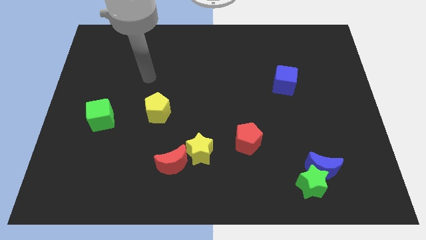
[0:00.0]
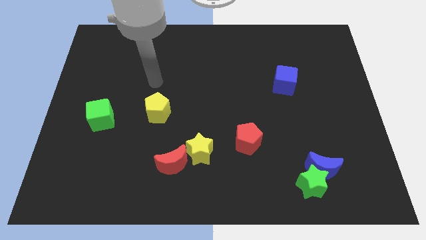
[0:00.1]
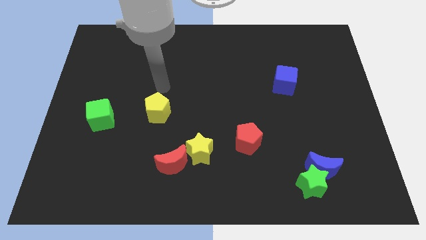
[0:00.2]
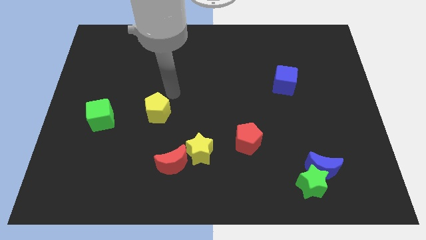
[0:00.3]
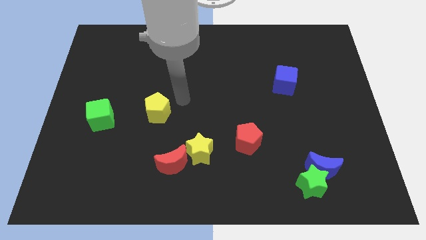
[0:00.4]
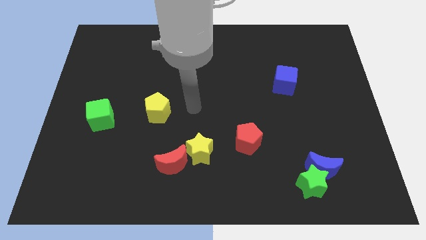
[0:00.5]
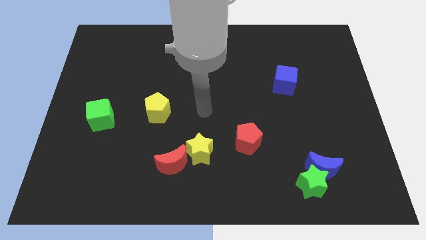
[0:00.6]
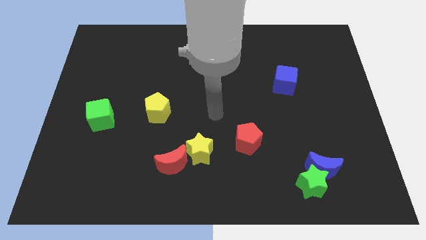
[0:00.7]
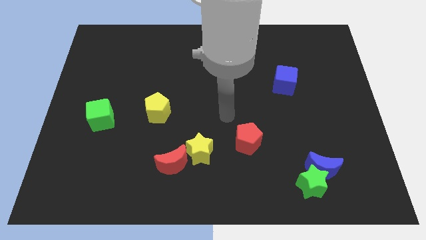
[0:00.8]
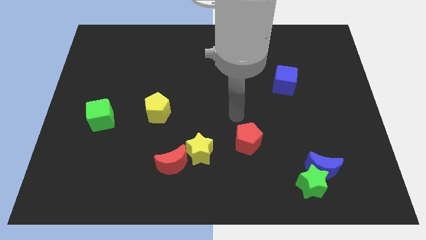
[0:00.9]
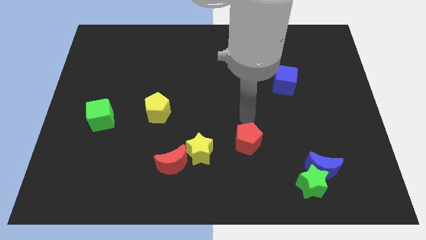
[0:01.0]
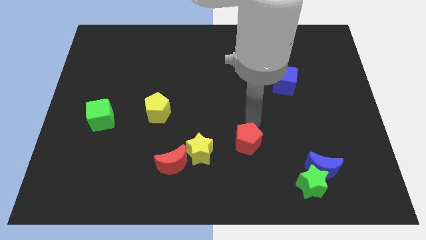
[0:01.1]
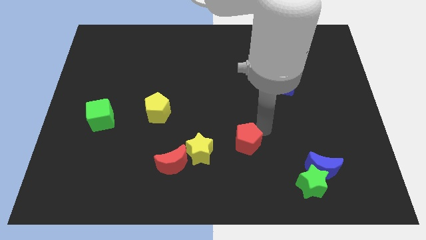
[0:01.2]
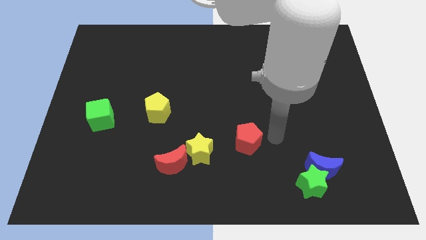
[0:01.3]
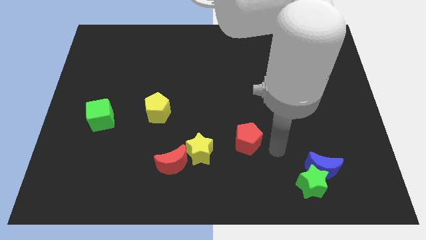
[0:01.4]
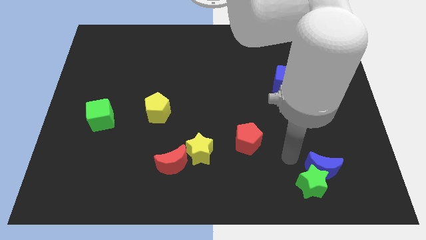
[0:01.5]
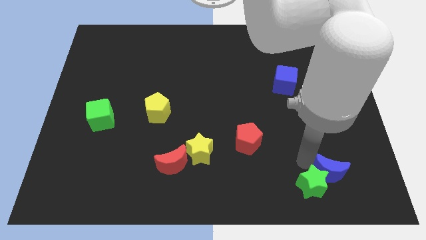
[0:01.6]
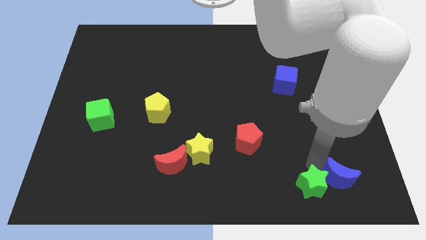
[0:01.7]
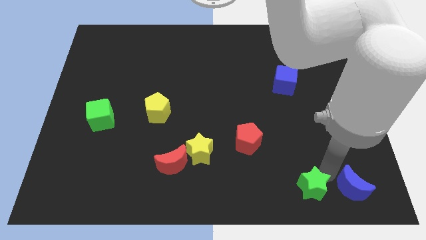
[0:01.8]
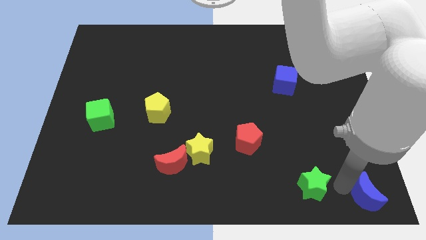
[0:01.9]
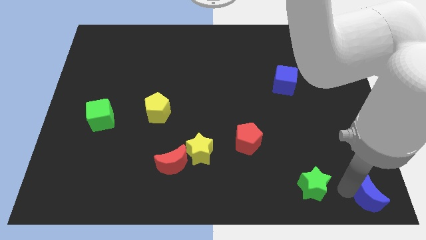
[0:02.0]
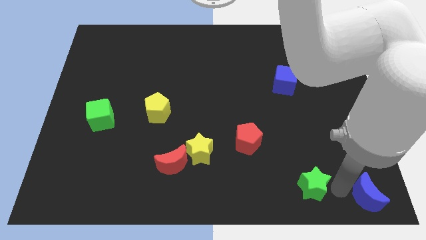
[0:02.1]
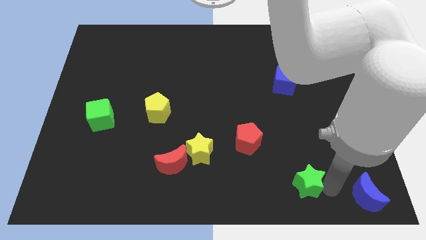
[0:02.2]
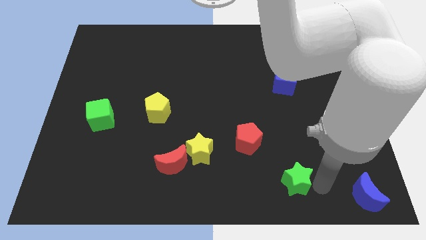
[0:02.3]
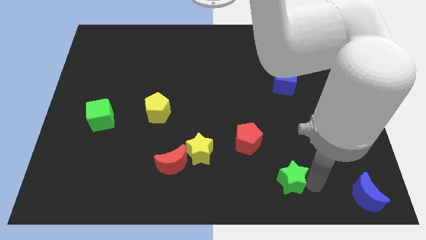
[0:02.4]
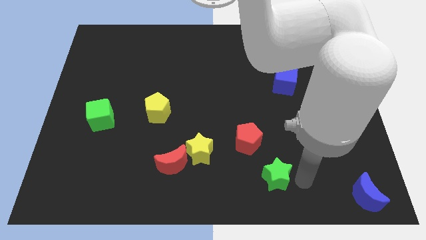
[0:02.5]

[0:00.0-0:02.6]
slide the green star a bit to the left

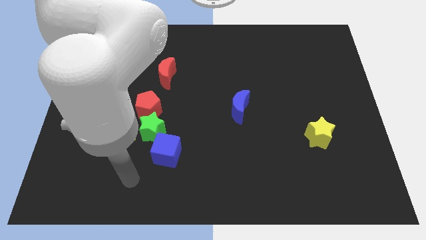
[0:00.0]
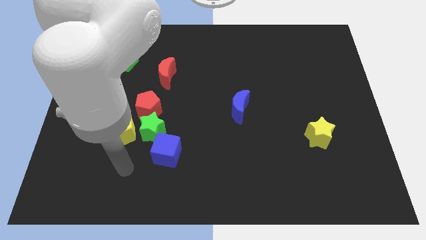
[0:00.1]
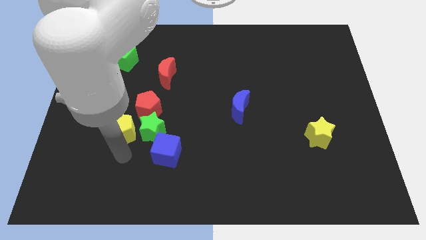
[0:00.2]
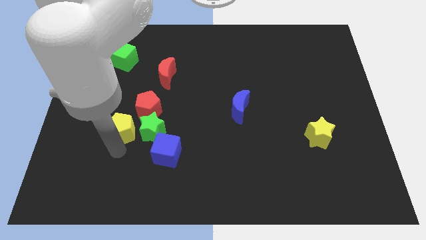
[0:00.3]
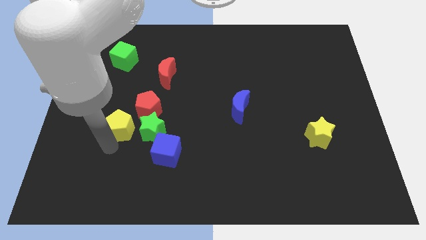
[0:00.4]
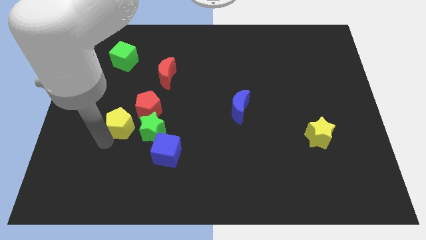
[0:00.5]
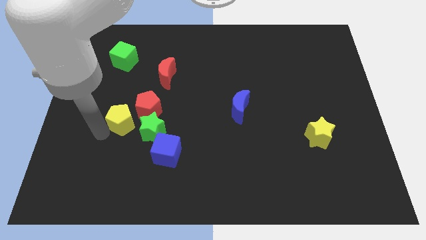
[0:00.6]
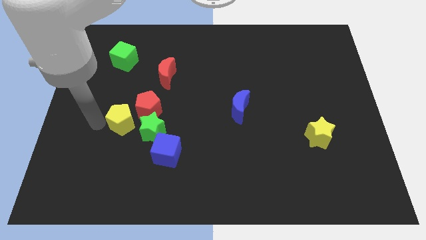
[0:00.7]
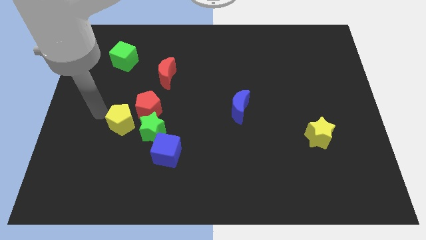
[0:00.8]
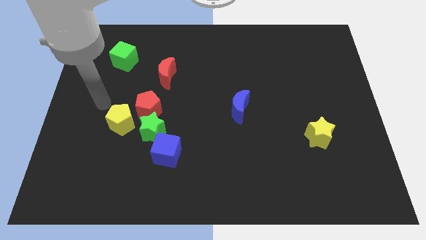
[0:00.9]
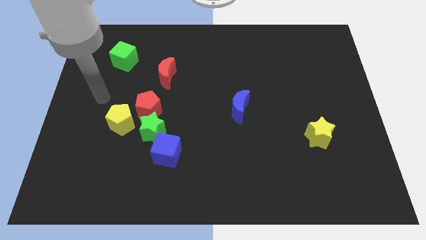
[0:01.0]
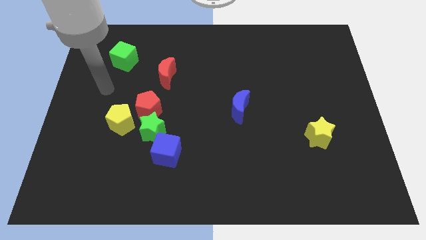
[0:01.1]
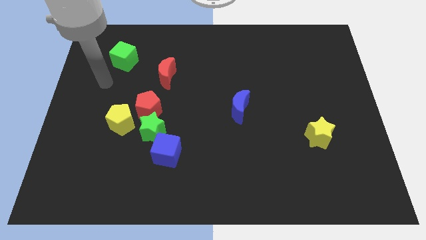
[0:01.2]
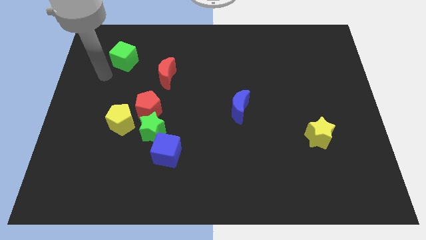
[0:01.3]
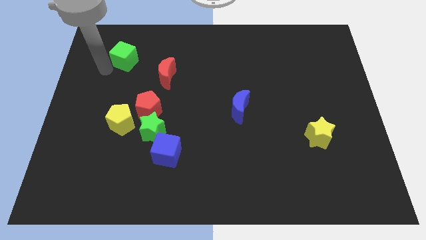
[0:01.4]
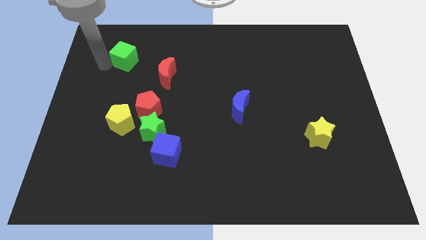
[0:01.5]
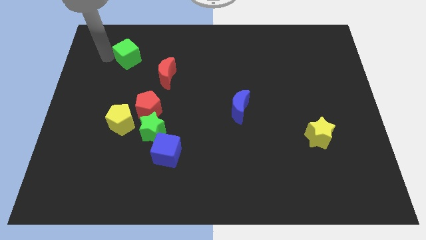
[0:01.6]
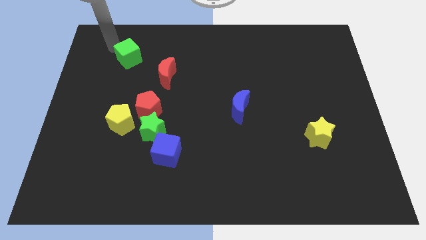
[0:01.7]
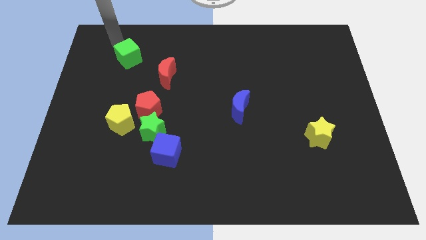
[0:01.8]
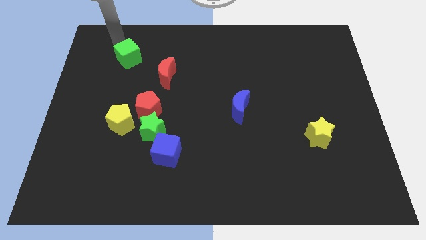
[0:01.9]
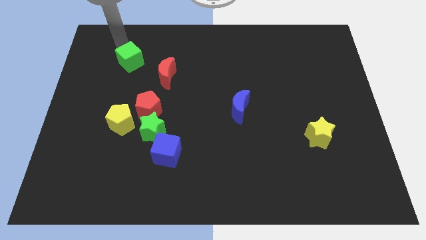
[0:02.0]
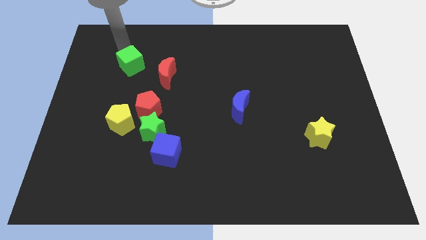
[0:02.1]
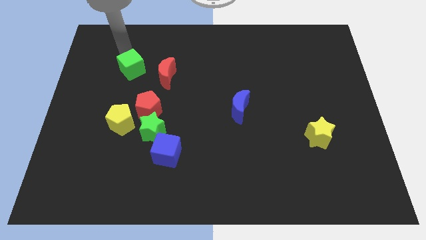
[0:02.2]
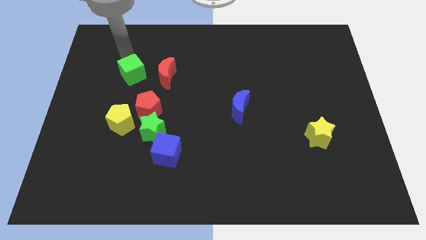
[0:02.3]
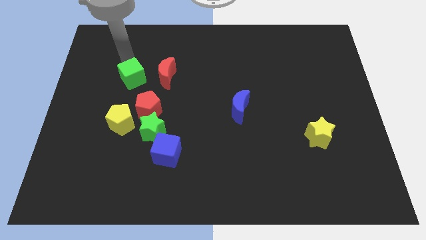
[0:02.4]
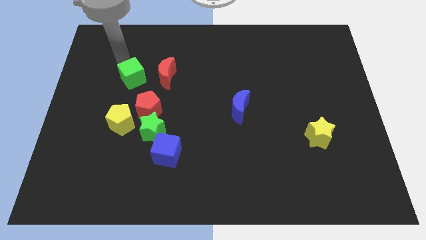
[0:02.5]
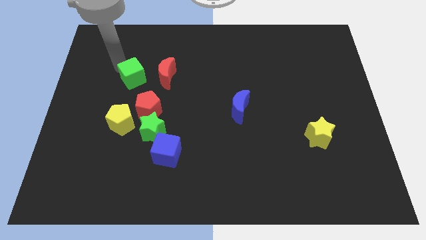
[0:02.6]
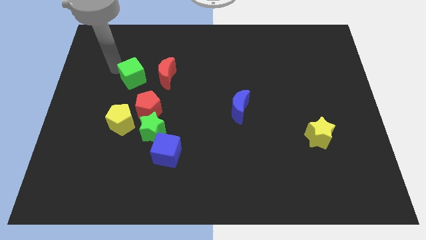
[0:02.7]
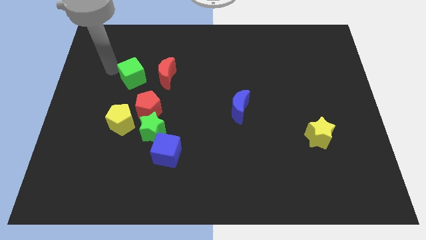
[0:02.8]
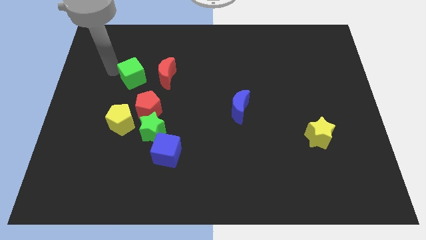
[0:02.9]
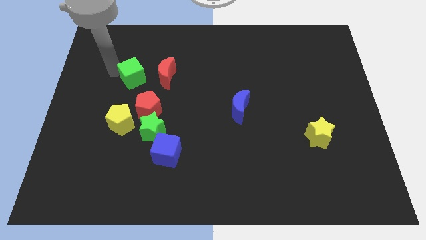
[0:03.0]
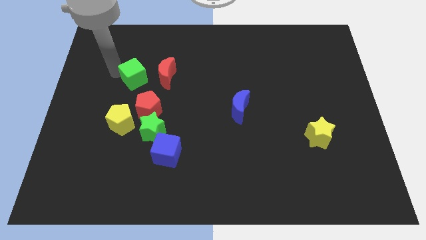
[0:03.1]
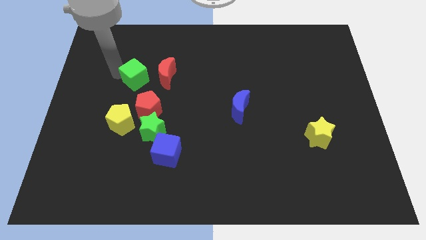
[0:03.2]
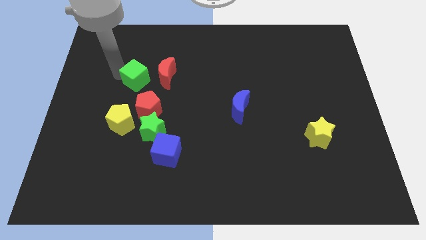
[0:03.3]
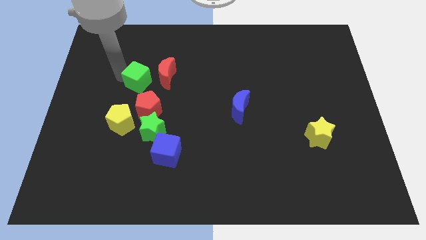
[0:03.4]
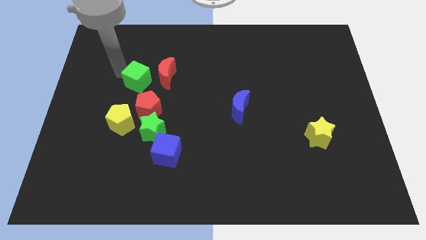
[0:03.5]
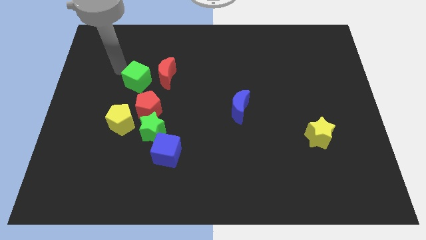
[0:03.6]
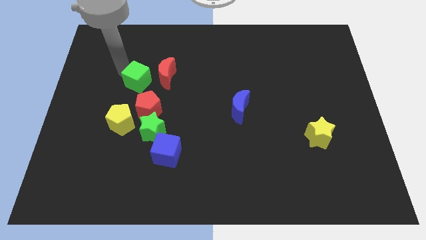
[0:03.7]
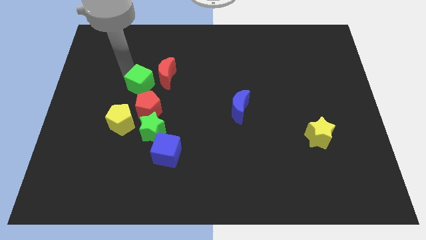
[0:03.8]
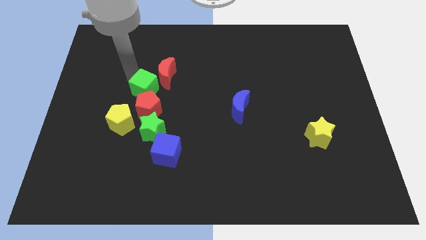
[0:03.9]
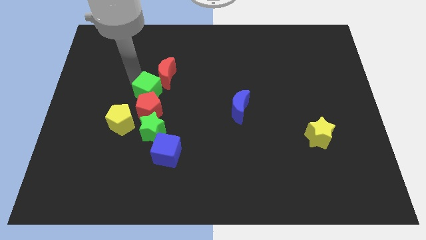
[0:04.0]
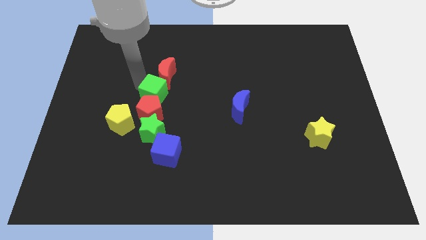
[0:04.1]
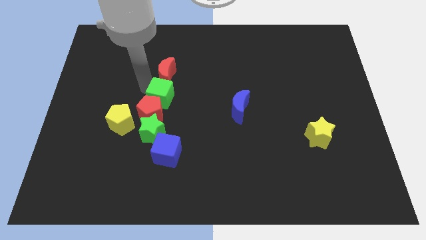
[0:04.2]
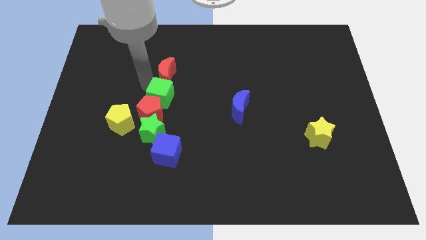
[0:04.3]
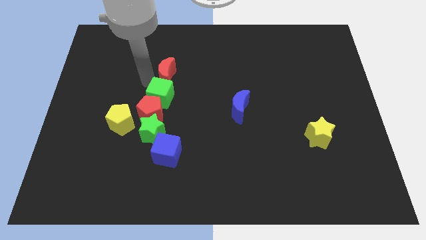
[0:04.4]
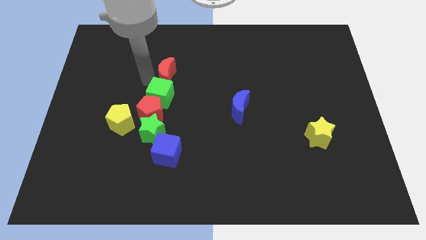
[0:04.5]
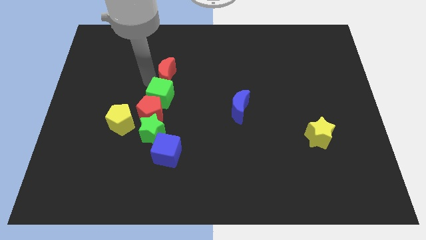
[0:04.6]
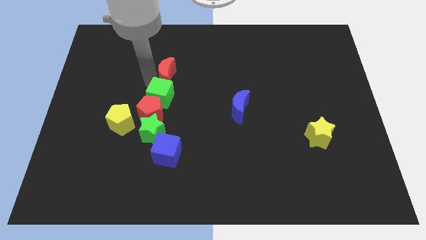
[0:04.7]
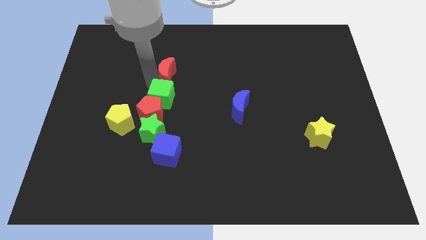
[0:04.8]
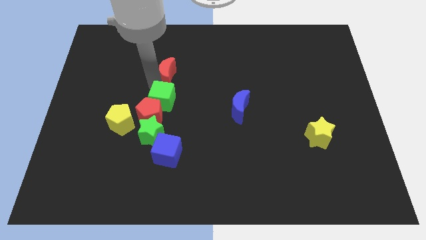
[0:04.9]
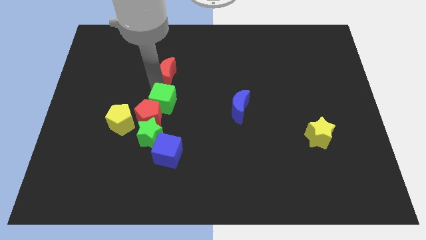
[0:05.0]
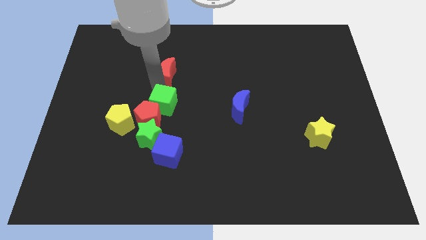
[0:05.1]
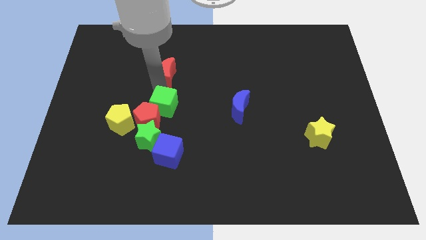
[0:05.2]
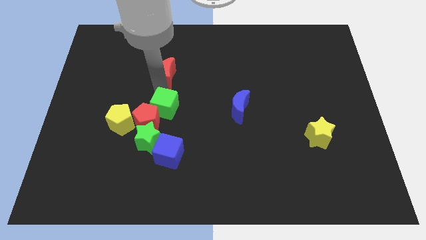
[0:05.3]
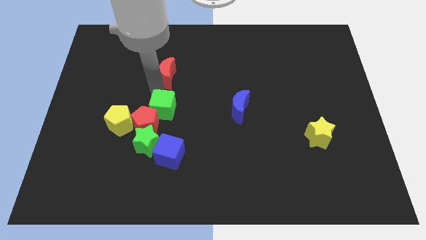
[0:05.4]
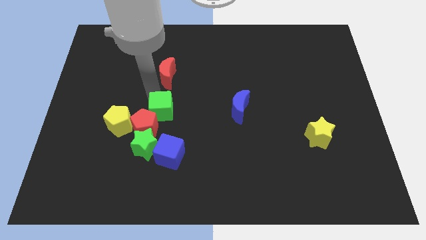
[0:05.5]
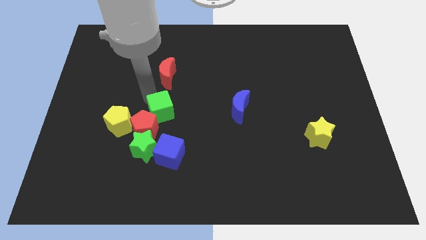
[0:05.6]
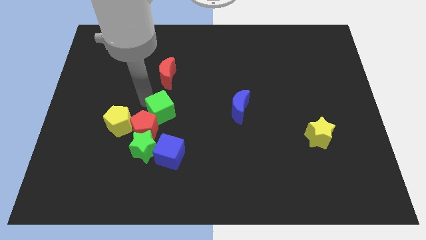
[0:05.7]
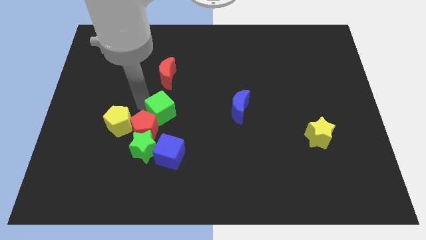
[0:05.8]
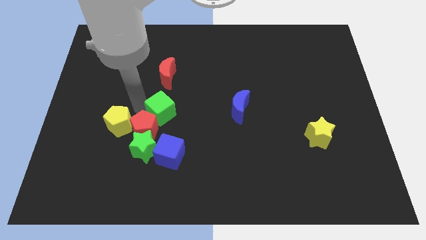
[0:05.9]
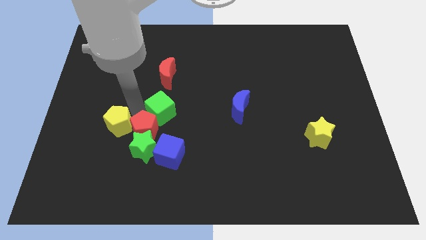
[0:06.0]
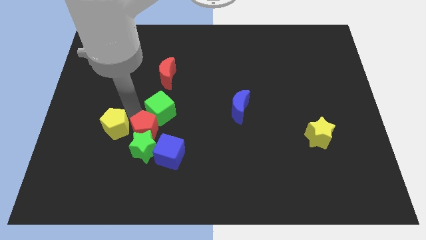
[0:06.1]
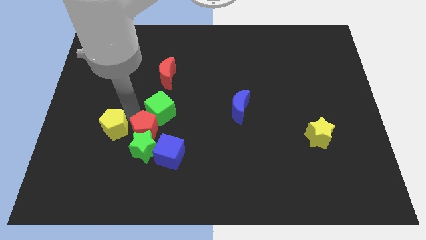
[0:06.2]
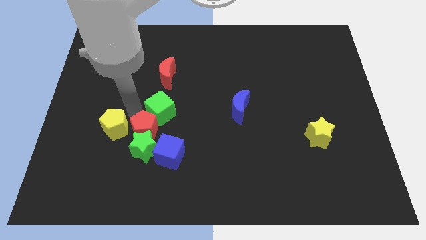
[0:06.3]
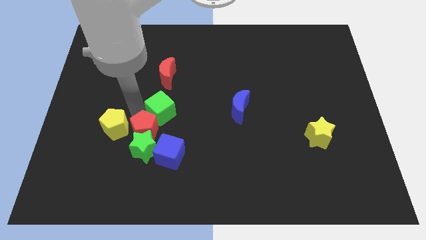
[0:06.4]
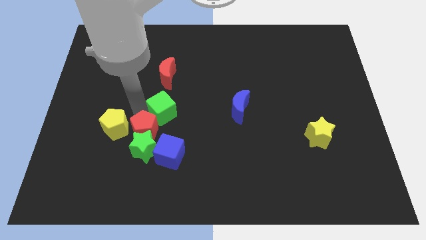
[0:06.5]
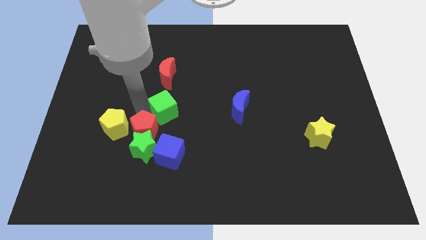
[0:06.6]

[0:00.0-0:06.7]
slide the green cube down and to the right diagonally
